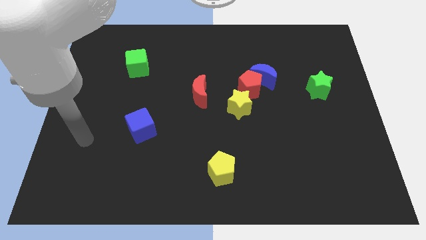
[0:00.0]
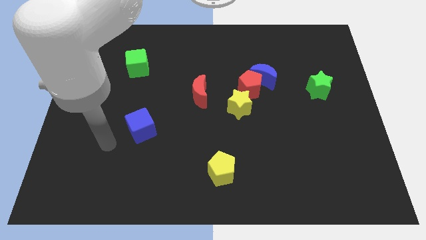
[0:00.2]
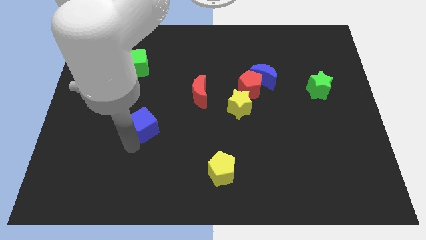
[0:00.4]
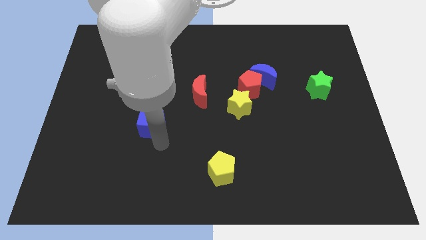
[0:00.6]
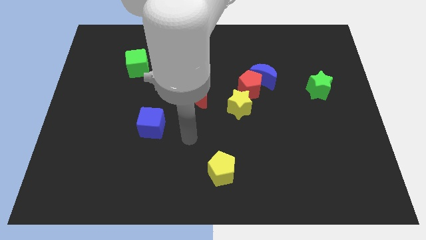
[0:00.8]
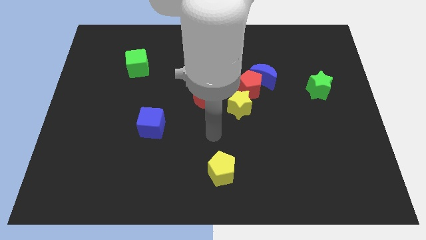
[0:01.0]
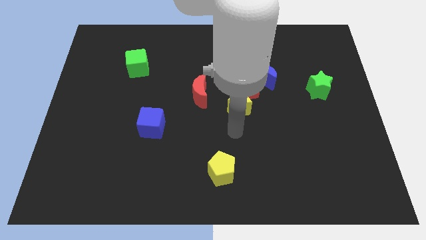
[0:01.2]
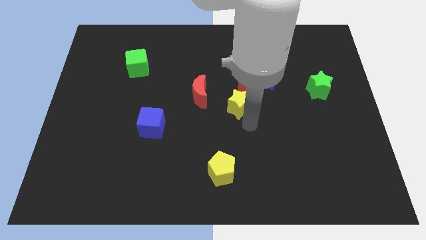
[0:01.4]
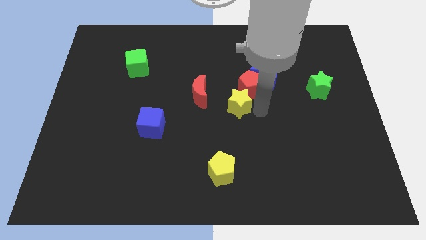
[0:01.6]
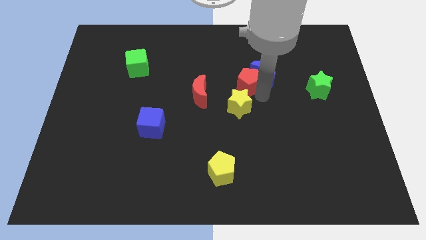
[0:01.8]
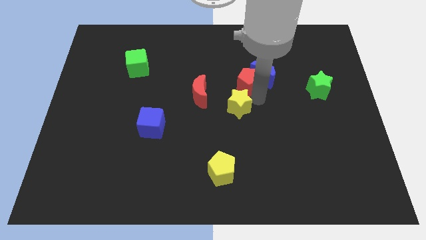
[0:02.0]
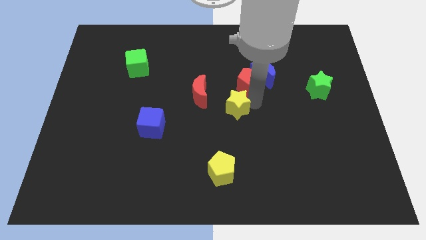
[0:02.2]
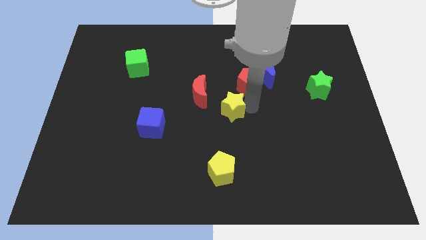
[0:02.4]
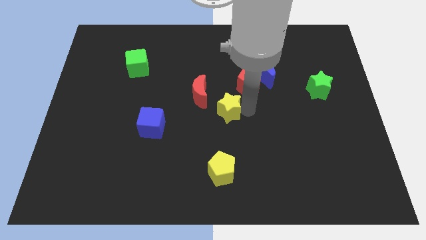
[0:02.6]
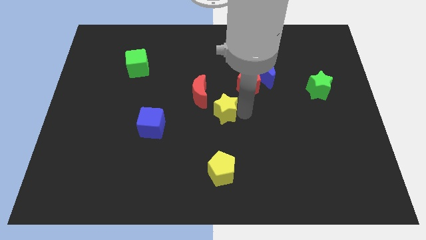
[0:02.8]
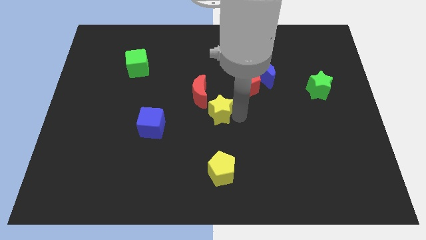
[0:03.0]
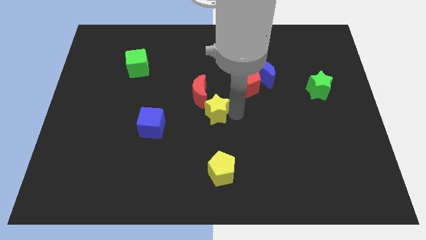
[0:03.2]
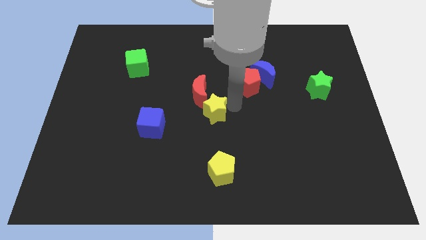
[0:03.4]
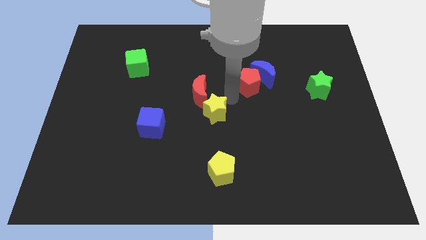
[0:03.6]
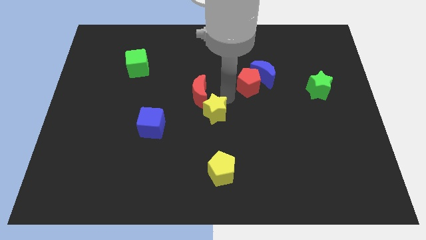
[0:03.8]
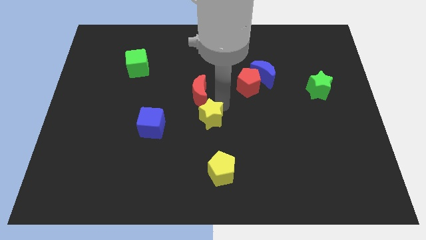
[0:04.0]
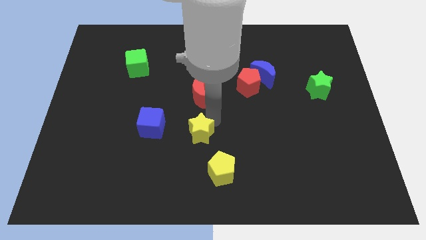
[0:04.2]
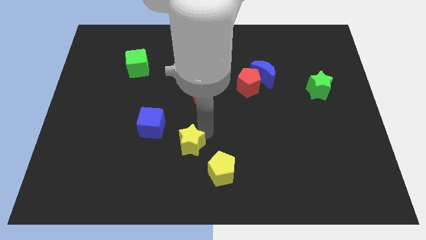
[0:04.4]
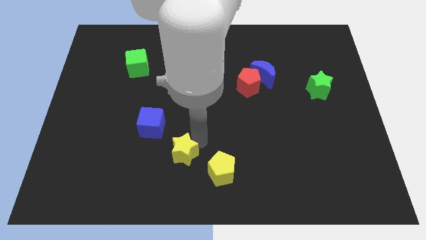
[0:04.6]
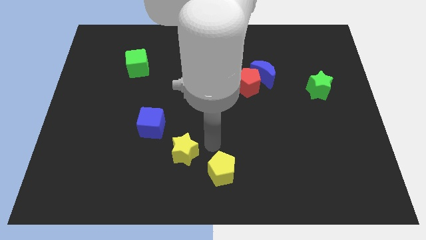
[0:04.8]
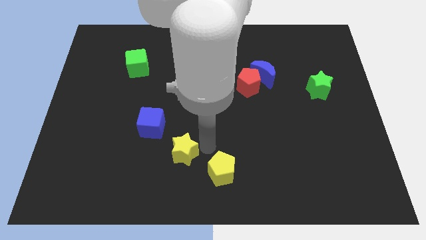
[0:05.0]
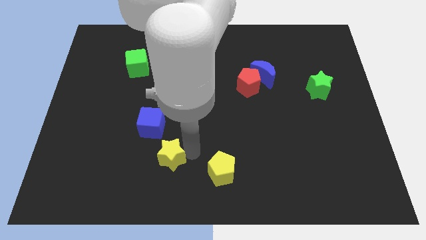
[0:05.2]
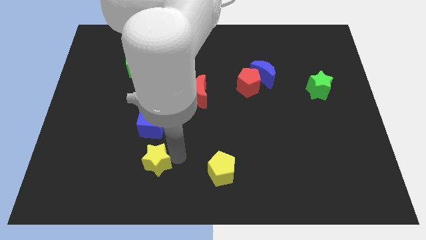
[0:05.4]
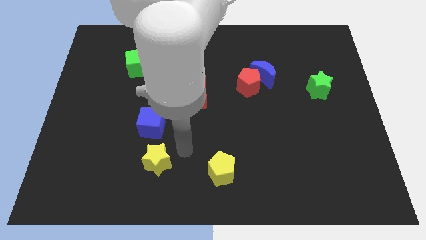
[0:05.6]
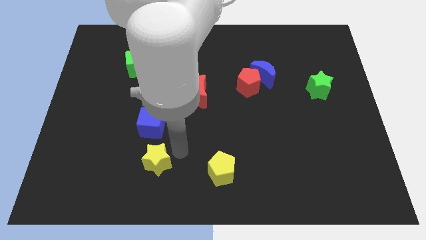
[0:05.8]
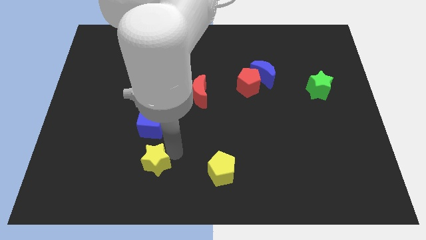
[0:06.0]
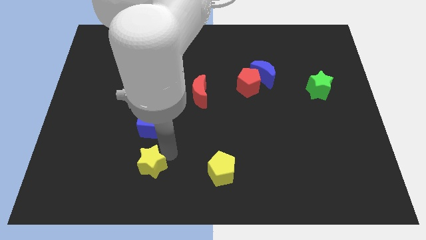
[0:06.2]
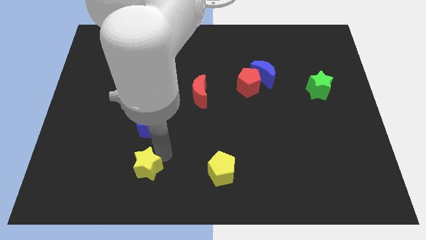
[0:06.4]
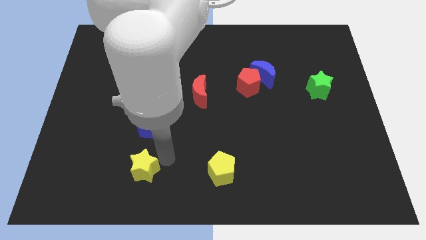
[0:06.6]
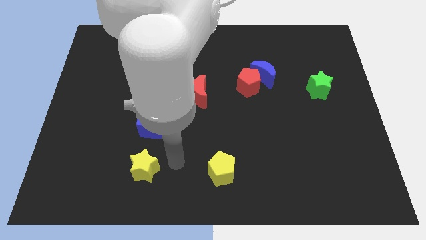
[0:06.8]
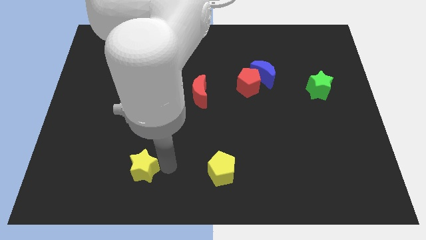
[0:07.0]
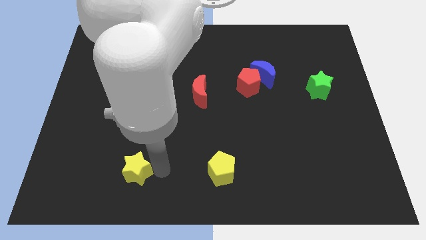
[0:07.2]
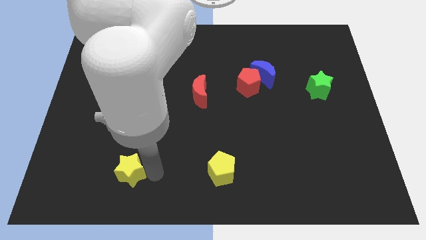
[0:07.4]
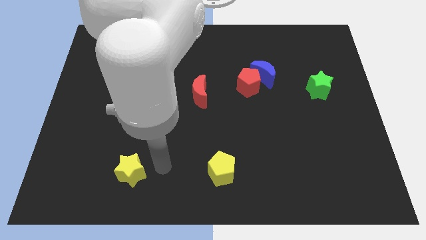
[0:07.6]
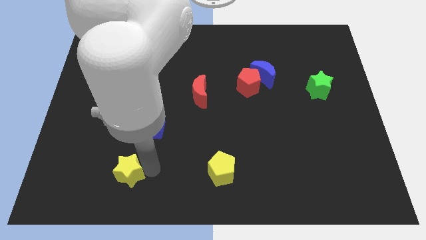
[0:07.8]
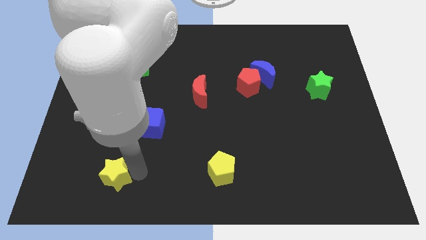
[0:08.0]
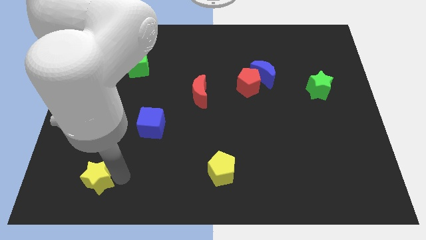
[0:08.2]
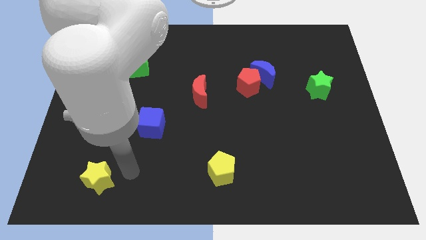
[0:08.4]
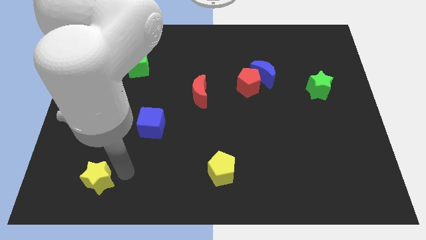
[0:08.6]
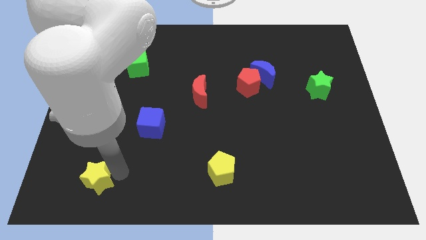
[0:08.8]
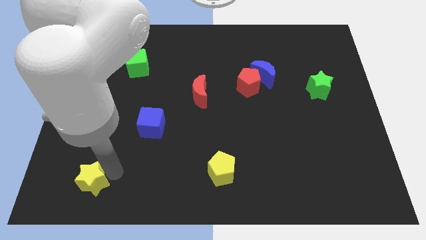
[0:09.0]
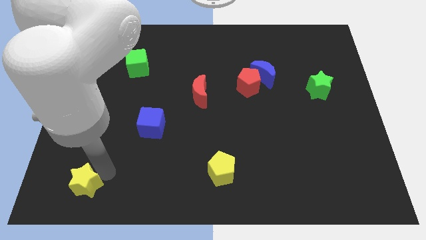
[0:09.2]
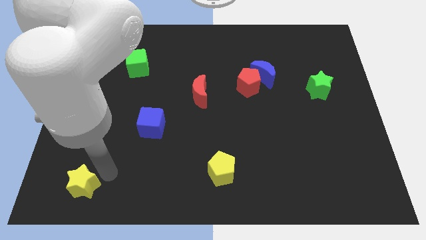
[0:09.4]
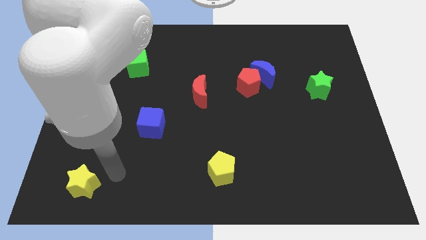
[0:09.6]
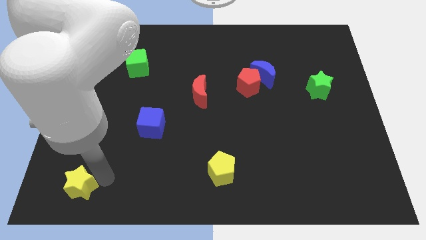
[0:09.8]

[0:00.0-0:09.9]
push the yellow star to the bottom left

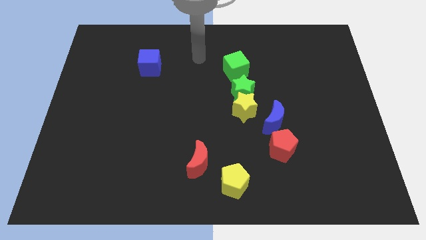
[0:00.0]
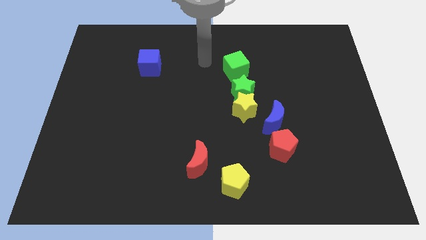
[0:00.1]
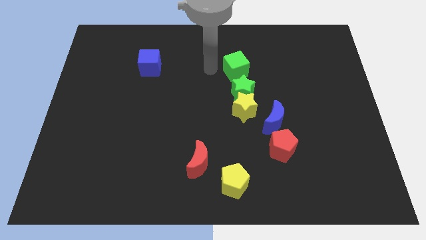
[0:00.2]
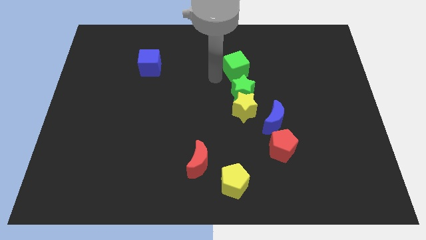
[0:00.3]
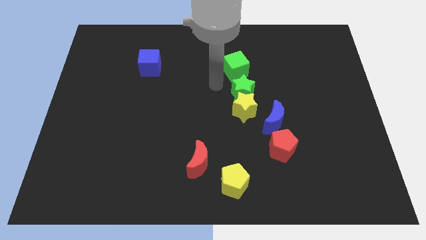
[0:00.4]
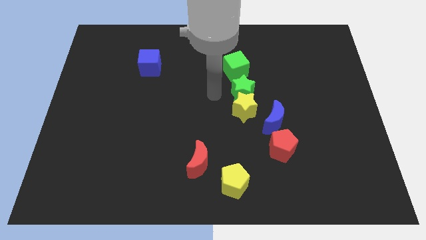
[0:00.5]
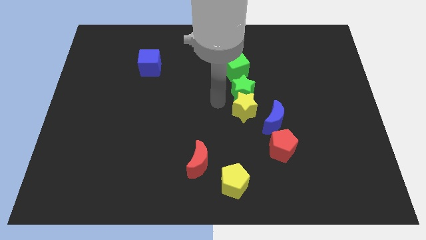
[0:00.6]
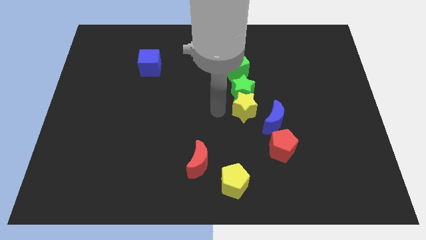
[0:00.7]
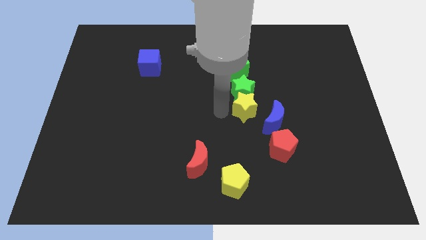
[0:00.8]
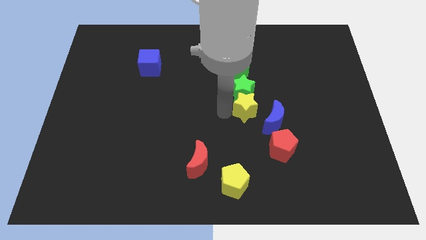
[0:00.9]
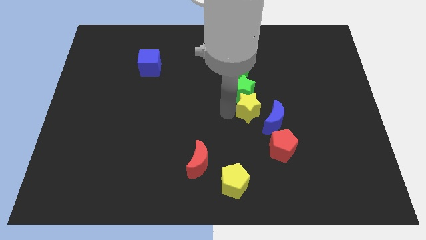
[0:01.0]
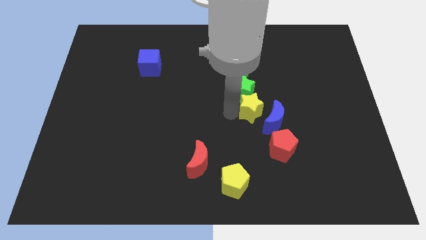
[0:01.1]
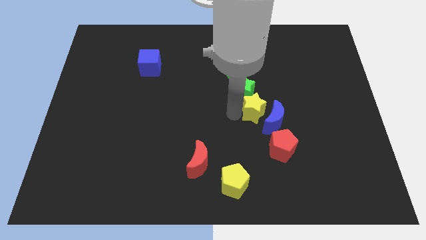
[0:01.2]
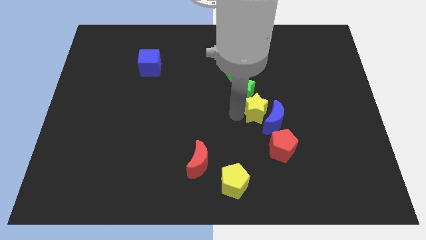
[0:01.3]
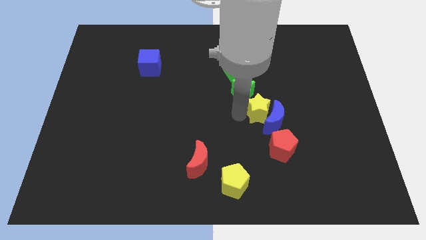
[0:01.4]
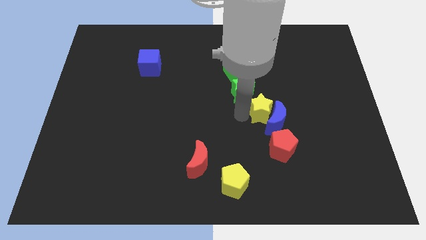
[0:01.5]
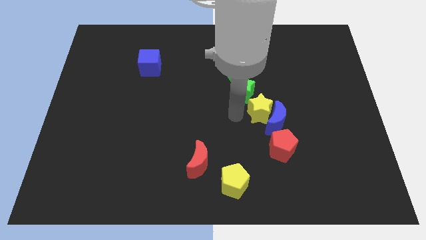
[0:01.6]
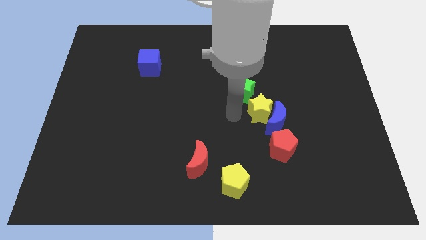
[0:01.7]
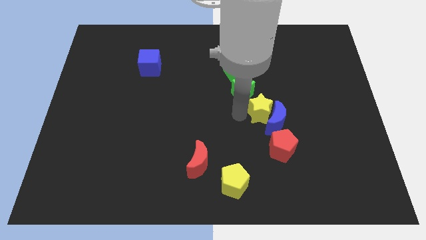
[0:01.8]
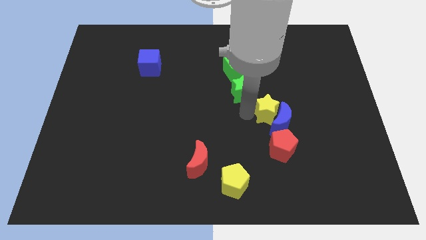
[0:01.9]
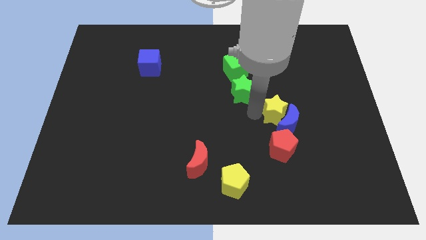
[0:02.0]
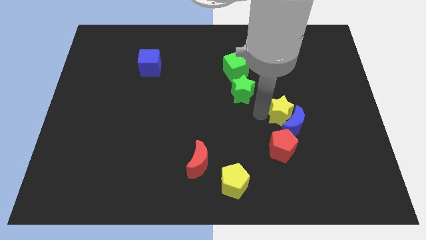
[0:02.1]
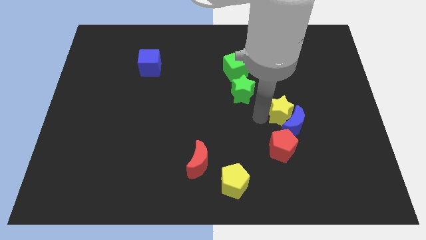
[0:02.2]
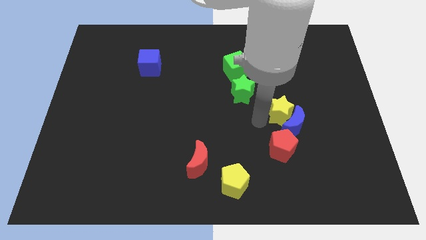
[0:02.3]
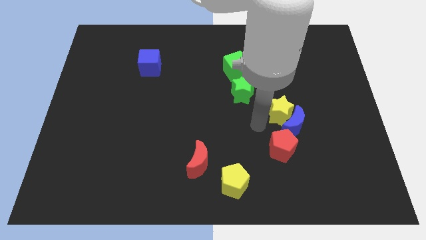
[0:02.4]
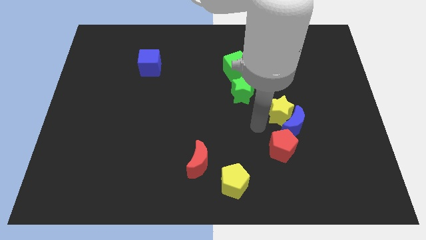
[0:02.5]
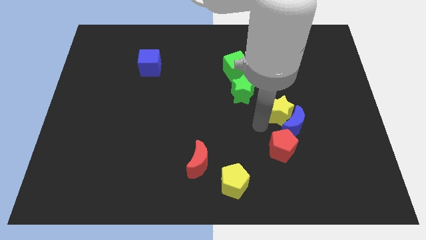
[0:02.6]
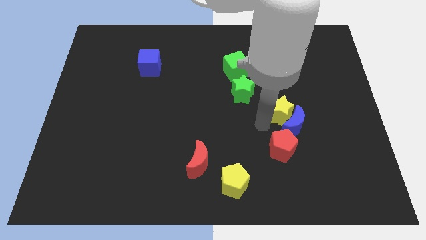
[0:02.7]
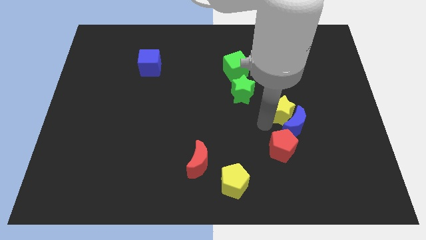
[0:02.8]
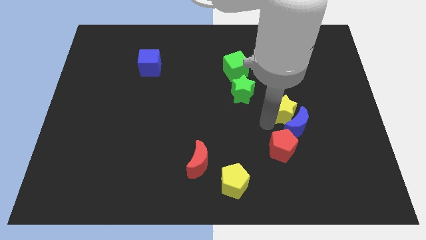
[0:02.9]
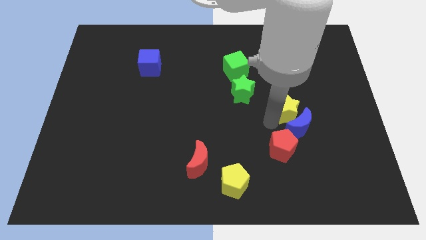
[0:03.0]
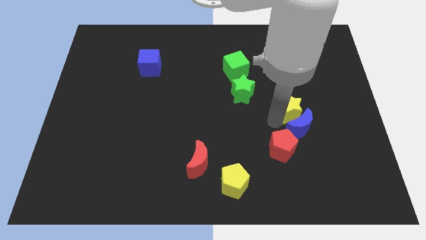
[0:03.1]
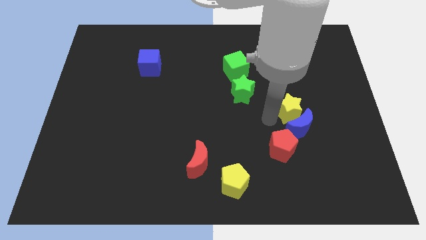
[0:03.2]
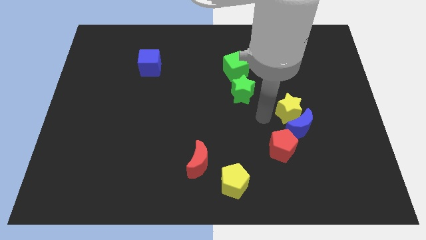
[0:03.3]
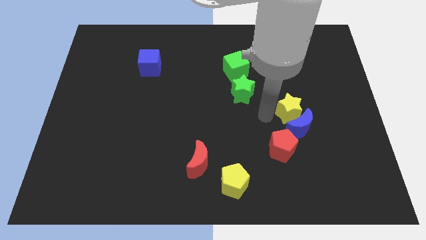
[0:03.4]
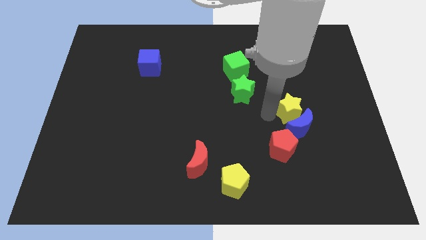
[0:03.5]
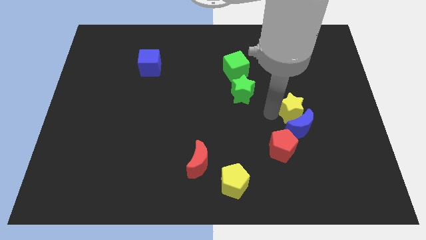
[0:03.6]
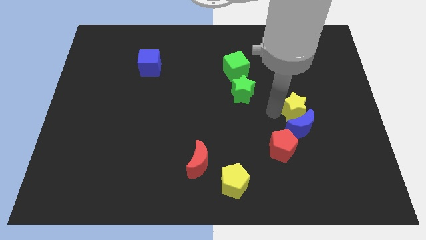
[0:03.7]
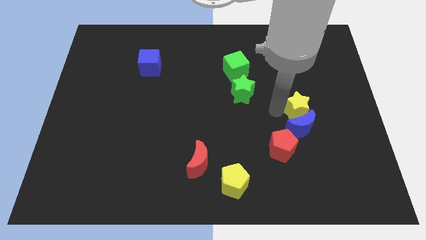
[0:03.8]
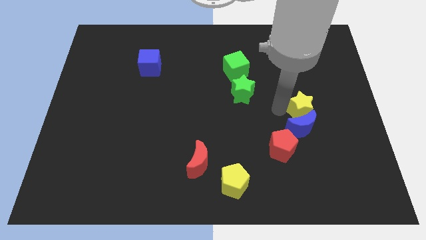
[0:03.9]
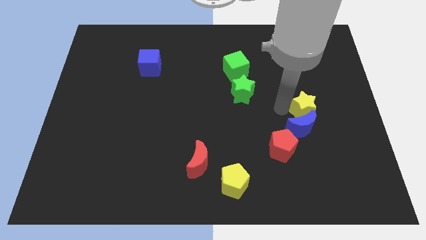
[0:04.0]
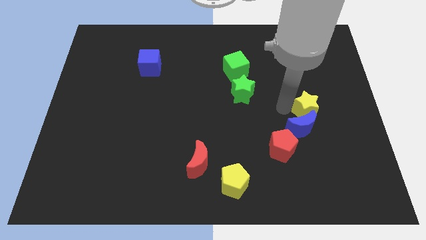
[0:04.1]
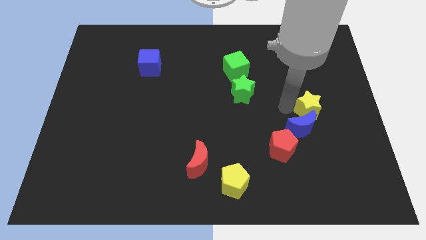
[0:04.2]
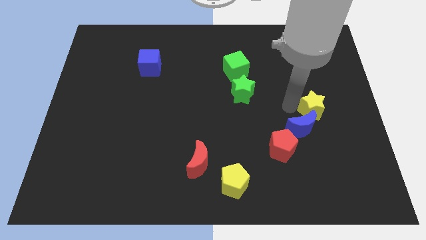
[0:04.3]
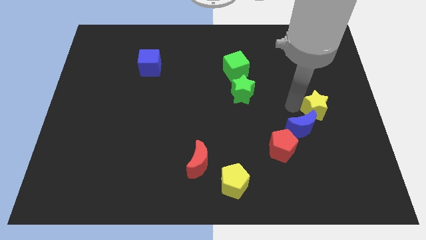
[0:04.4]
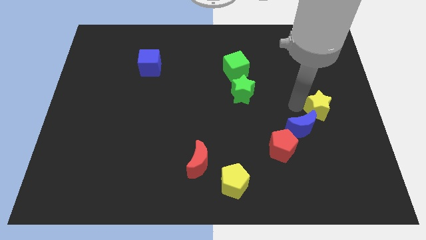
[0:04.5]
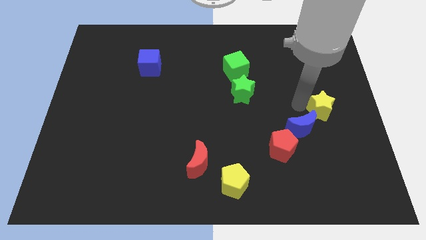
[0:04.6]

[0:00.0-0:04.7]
move the yellow star to the center right
